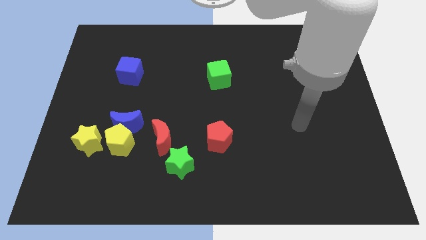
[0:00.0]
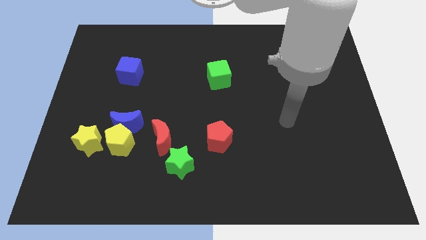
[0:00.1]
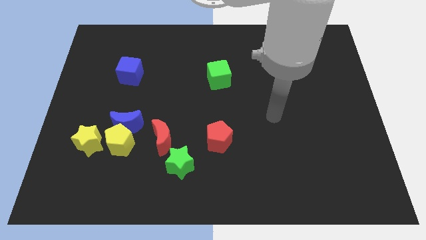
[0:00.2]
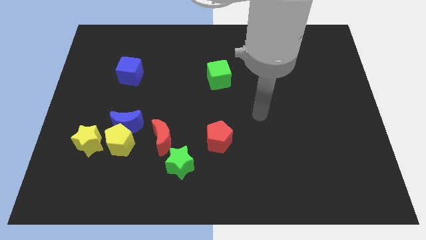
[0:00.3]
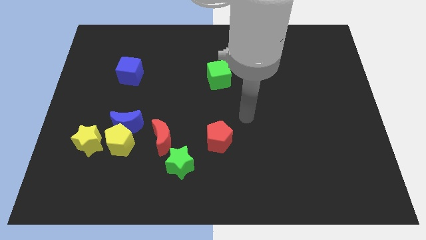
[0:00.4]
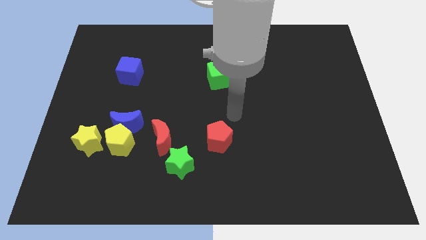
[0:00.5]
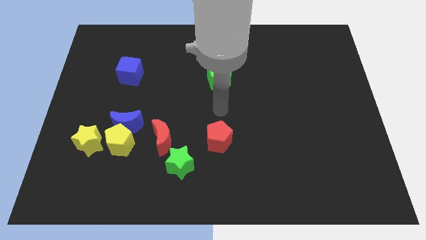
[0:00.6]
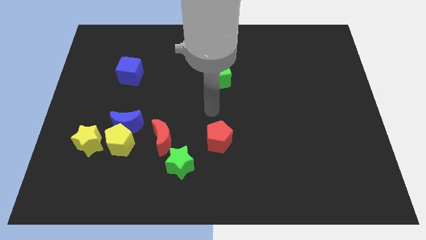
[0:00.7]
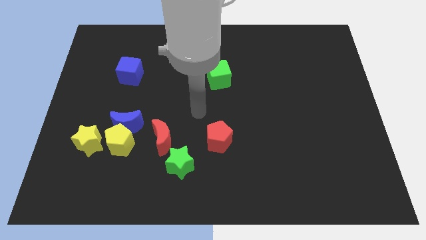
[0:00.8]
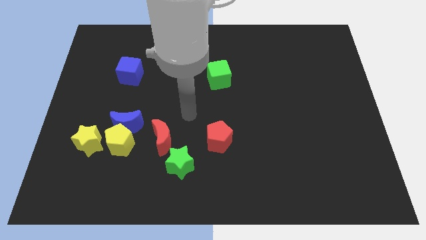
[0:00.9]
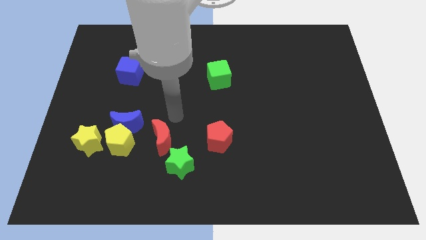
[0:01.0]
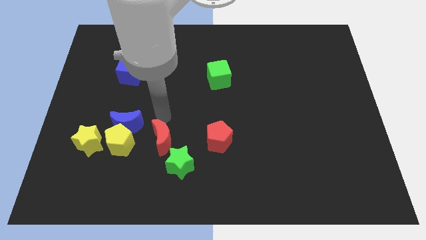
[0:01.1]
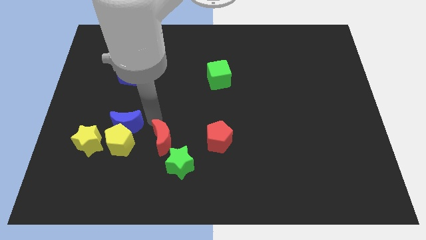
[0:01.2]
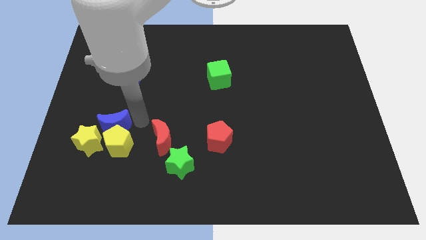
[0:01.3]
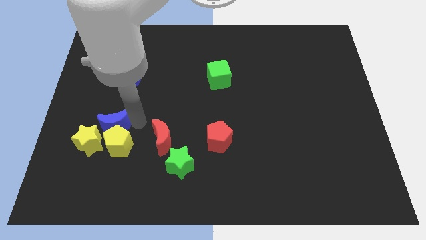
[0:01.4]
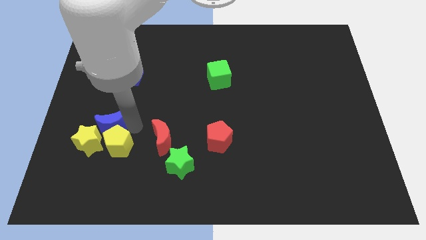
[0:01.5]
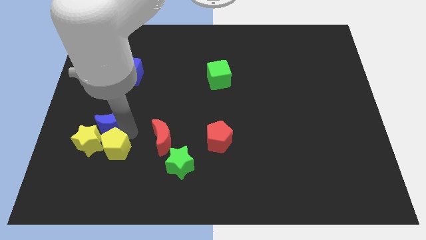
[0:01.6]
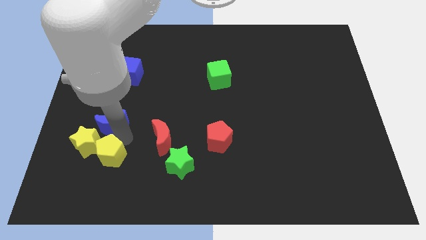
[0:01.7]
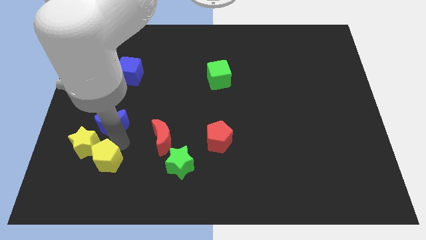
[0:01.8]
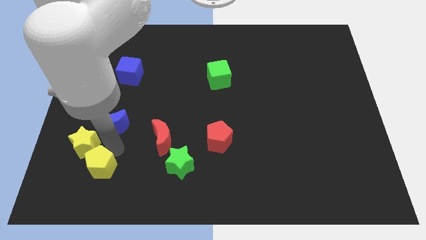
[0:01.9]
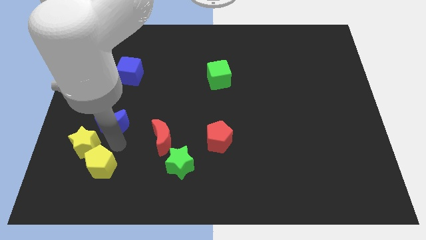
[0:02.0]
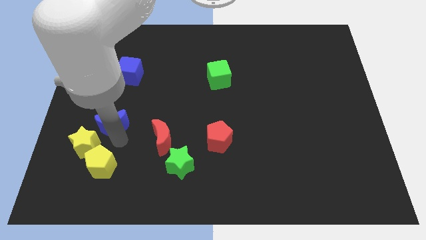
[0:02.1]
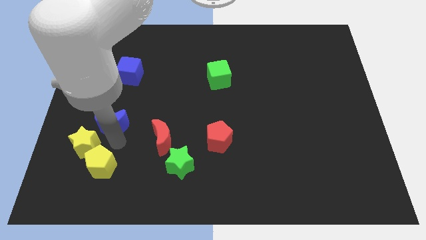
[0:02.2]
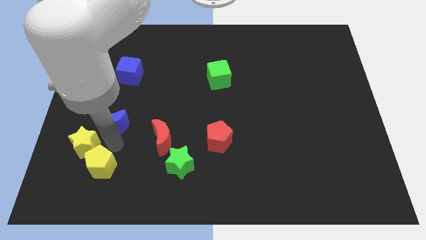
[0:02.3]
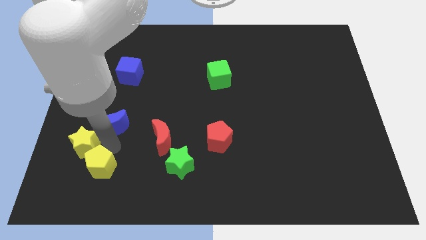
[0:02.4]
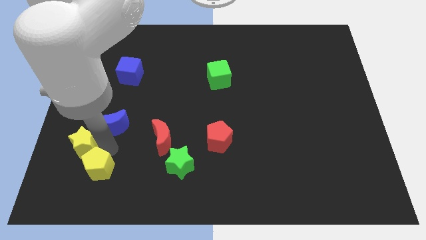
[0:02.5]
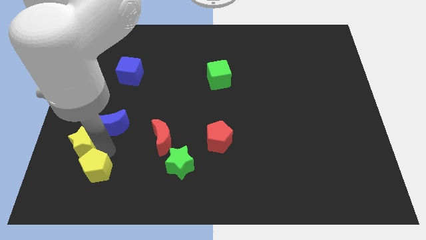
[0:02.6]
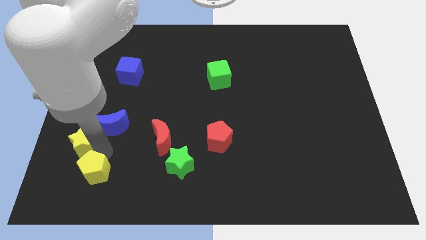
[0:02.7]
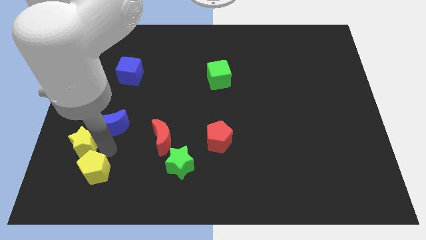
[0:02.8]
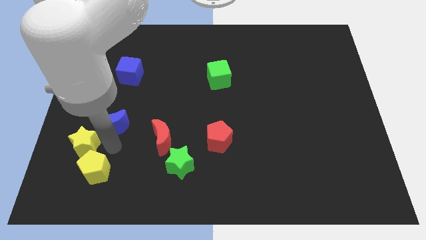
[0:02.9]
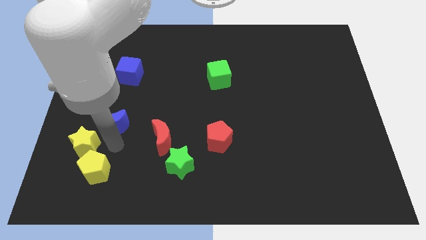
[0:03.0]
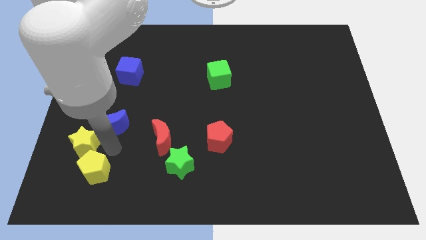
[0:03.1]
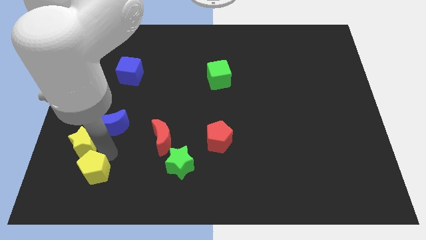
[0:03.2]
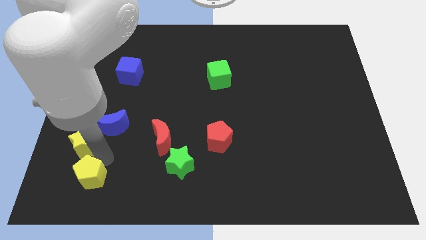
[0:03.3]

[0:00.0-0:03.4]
move the yellow pentagon away from the blue moon, yellow star, and red moon

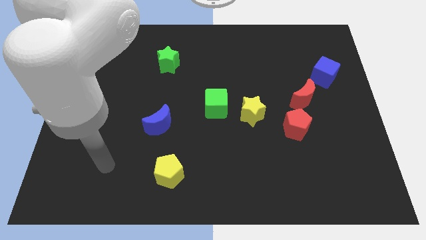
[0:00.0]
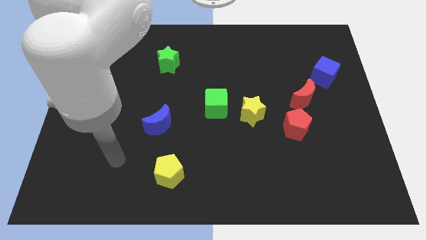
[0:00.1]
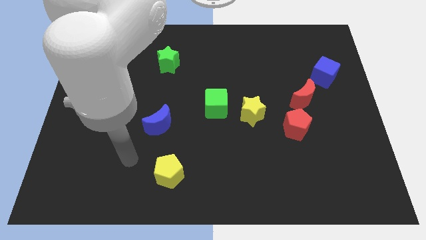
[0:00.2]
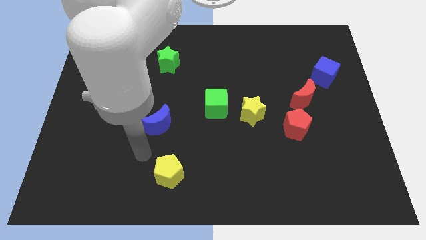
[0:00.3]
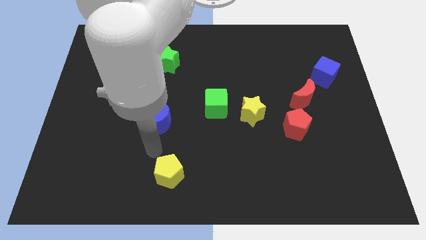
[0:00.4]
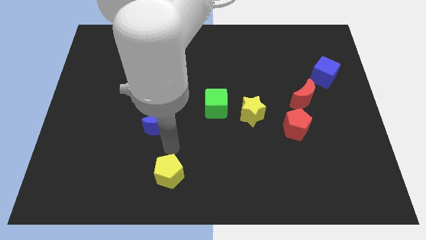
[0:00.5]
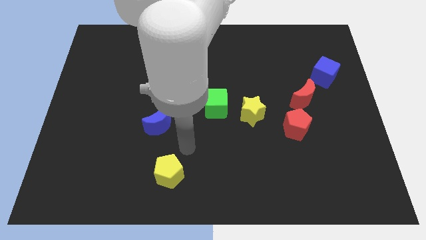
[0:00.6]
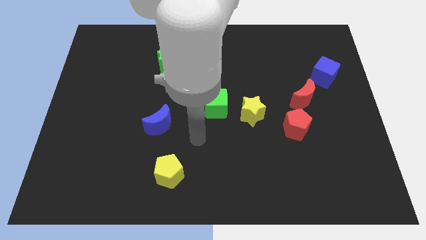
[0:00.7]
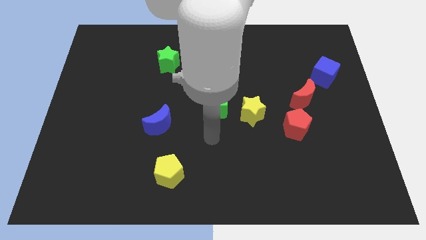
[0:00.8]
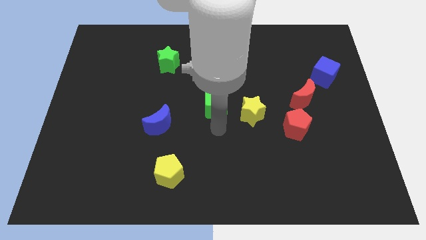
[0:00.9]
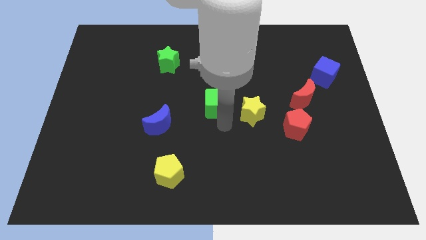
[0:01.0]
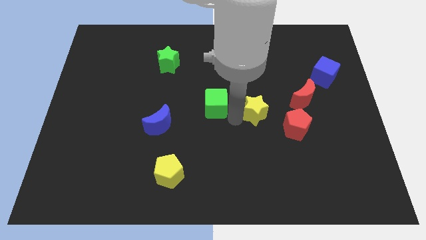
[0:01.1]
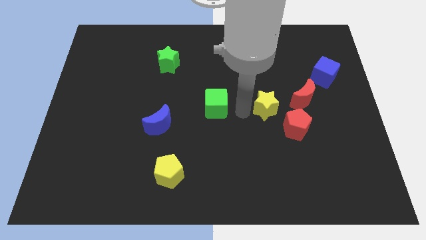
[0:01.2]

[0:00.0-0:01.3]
move the green cube away from the yellow star

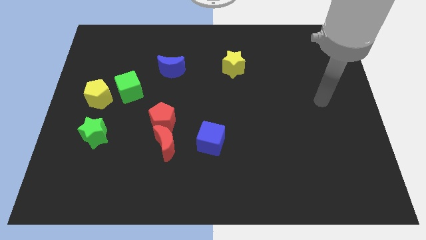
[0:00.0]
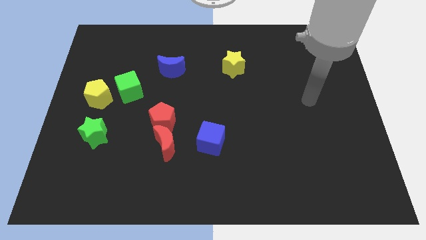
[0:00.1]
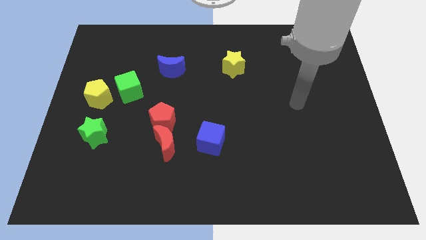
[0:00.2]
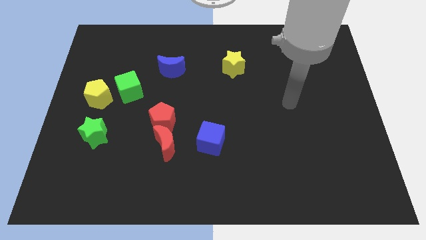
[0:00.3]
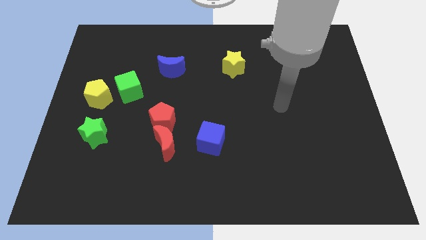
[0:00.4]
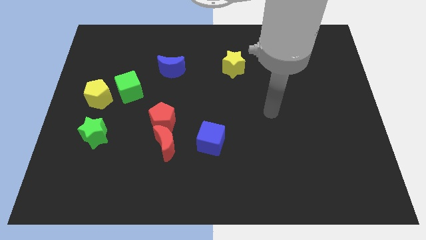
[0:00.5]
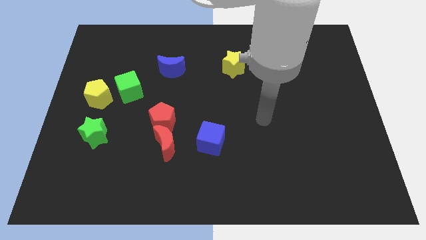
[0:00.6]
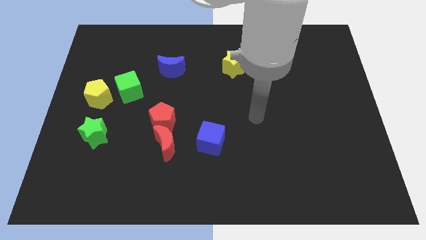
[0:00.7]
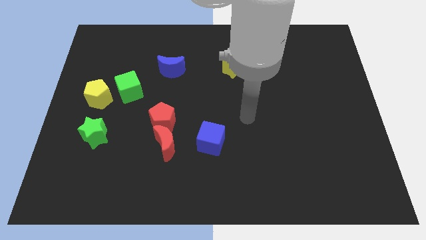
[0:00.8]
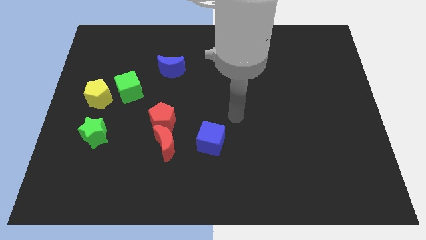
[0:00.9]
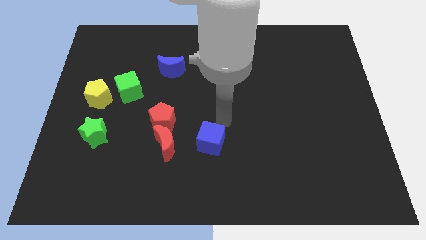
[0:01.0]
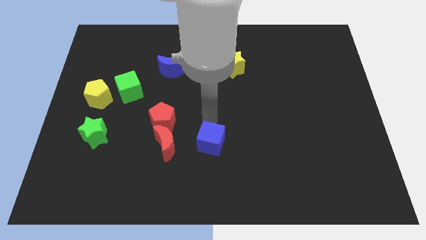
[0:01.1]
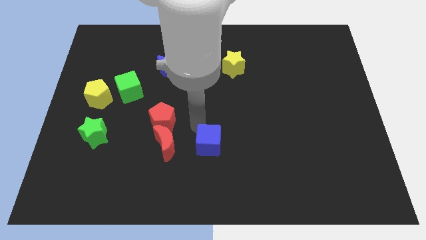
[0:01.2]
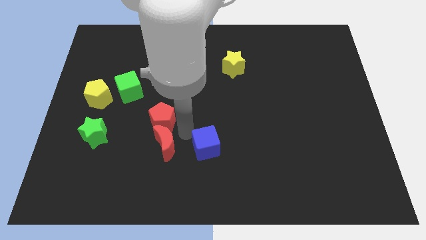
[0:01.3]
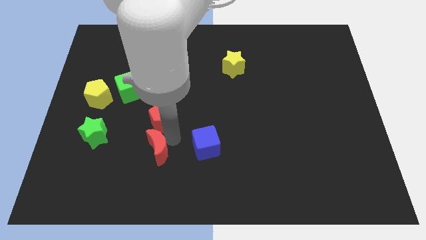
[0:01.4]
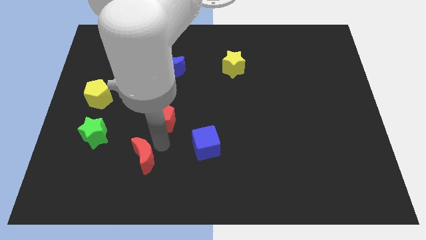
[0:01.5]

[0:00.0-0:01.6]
pull the red pentagon apart from the red moon

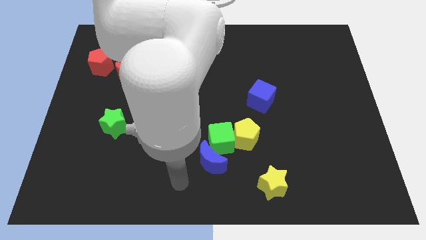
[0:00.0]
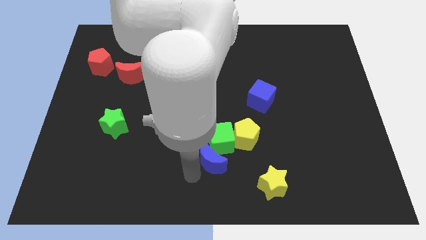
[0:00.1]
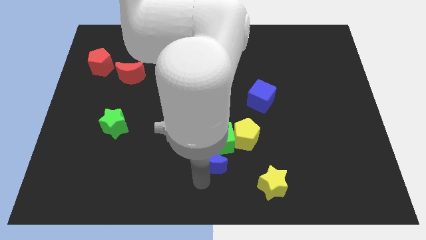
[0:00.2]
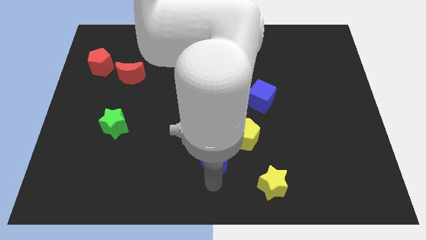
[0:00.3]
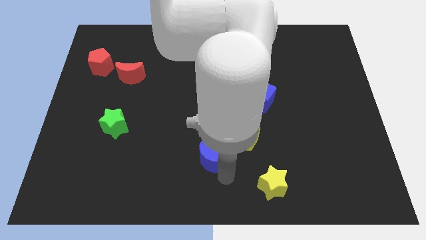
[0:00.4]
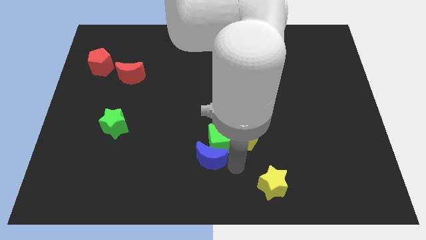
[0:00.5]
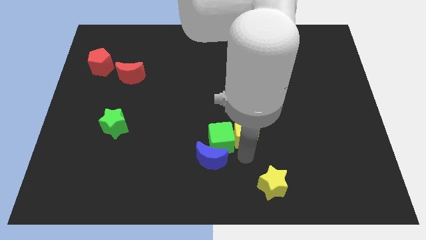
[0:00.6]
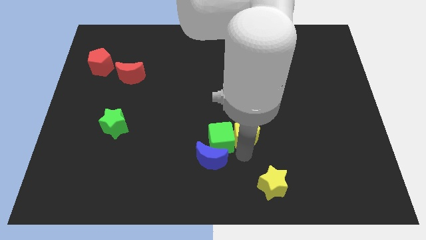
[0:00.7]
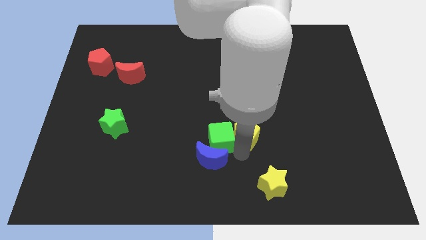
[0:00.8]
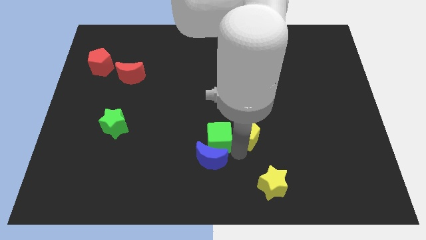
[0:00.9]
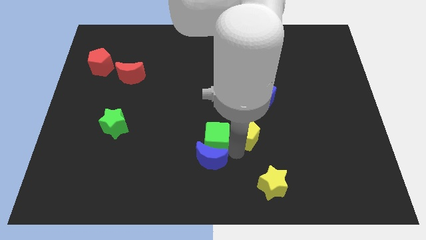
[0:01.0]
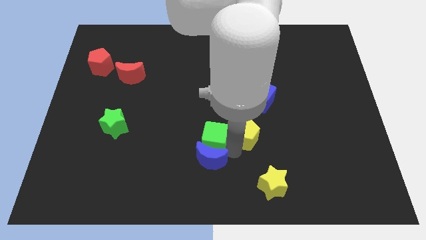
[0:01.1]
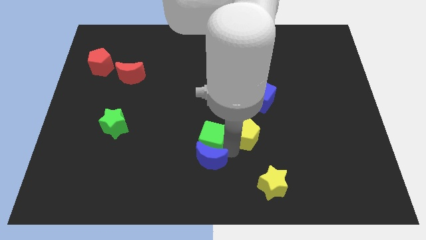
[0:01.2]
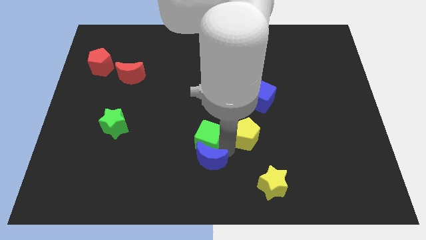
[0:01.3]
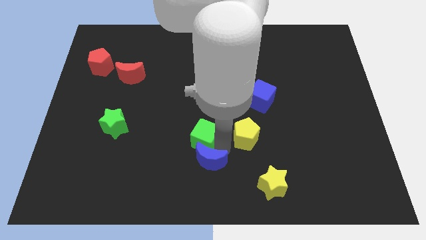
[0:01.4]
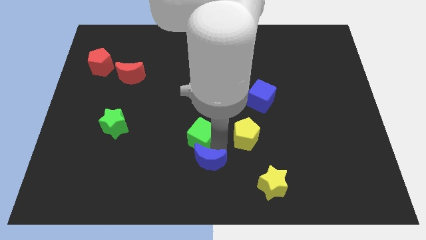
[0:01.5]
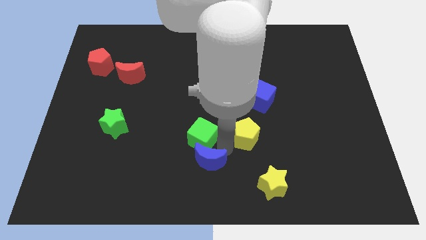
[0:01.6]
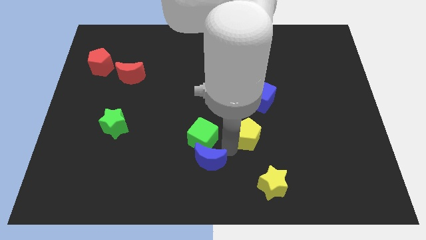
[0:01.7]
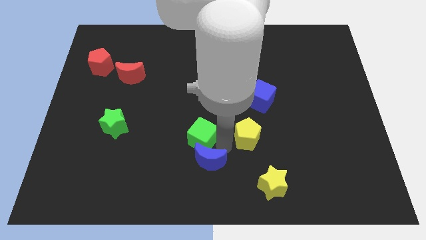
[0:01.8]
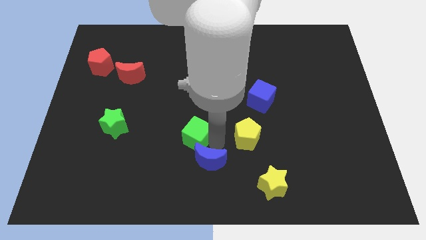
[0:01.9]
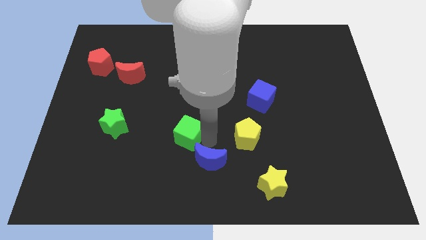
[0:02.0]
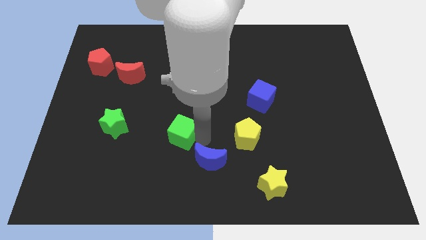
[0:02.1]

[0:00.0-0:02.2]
move the green cube away from the yellow pentagon and blue moon

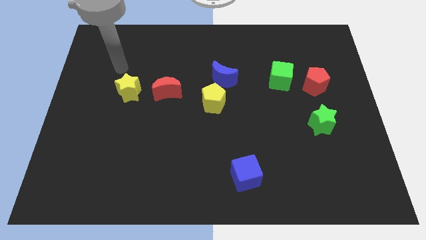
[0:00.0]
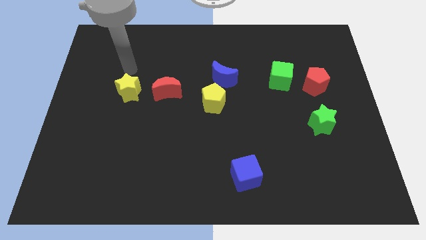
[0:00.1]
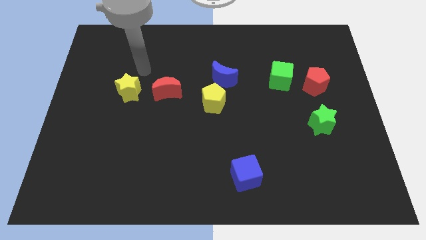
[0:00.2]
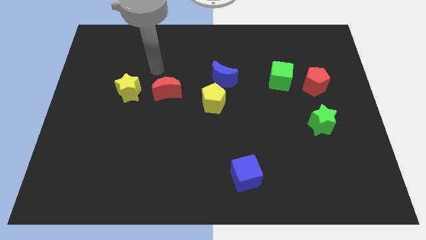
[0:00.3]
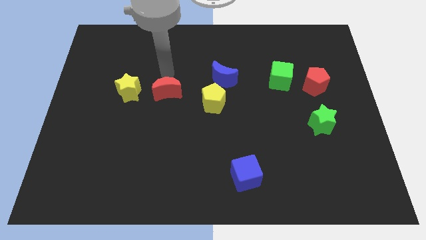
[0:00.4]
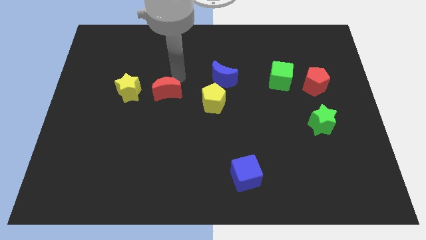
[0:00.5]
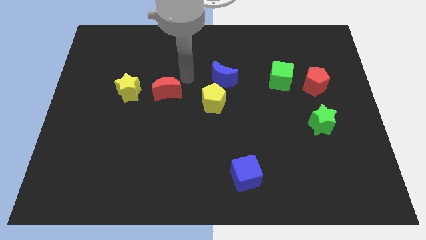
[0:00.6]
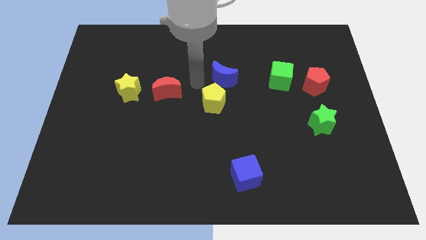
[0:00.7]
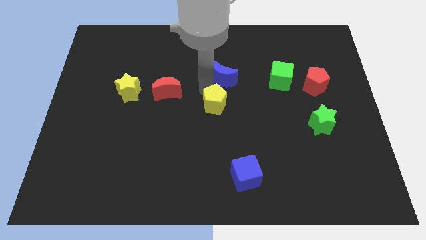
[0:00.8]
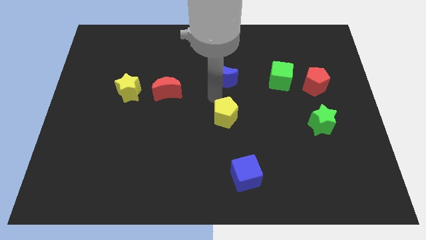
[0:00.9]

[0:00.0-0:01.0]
pull the blue moon apart from the yellow pentagon
